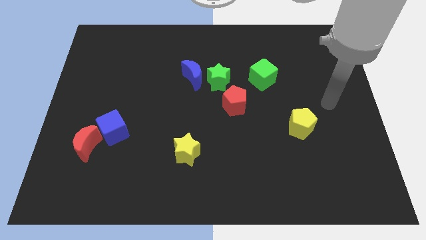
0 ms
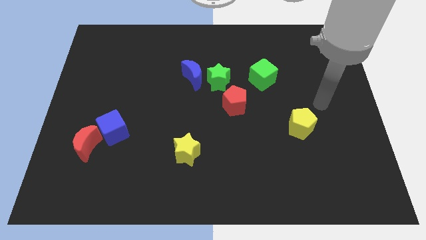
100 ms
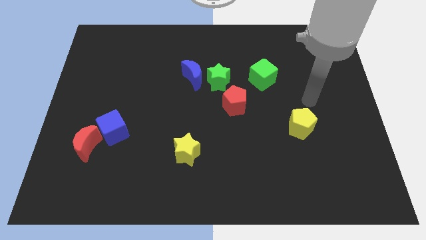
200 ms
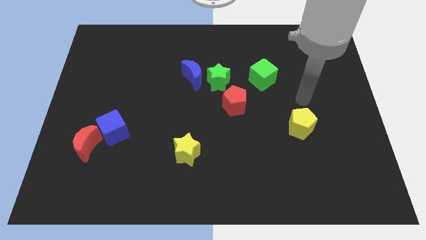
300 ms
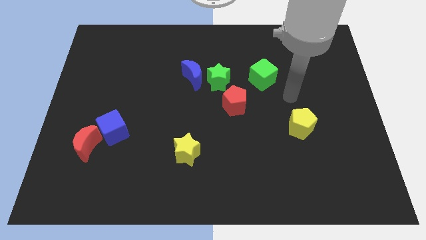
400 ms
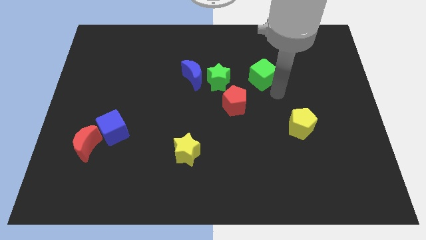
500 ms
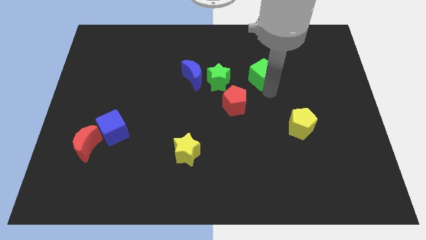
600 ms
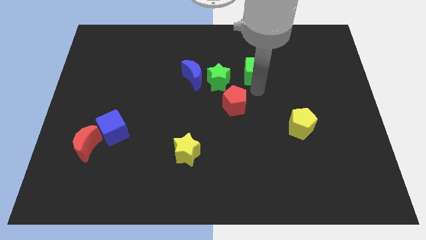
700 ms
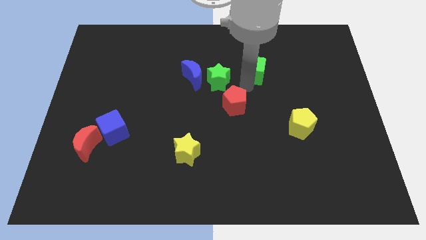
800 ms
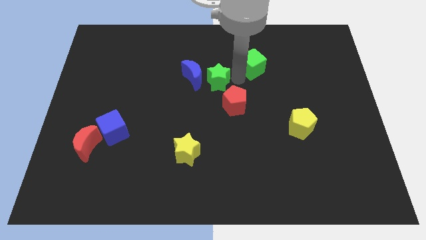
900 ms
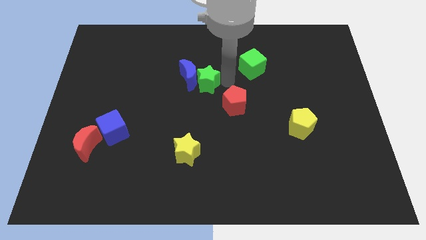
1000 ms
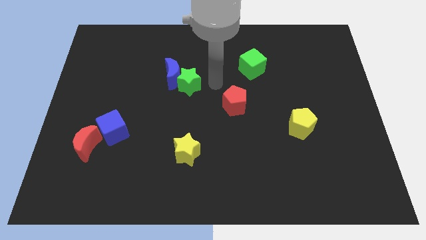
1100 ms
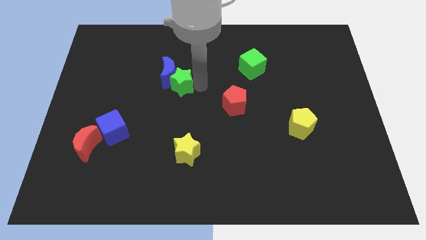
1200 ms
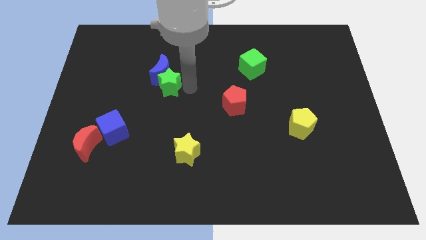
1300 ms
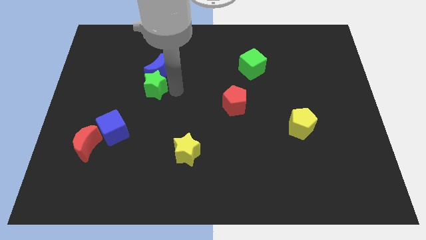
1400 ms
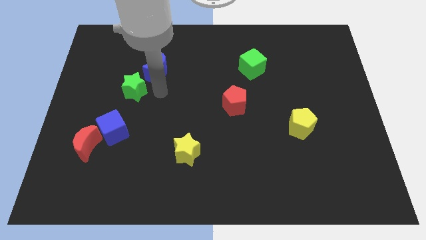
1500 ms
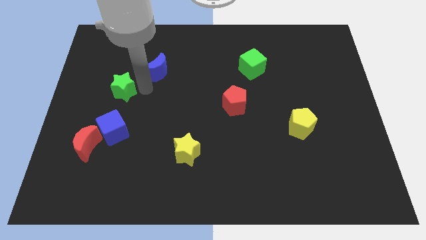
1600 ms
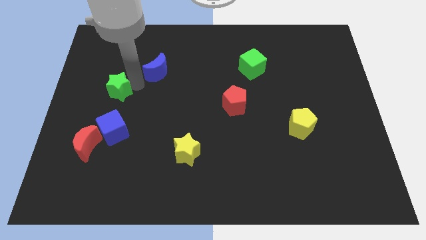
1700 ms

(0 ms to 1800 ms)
pull the blue moon apart from the green star

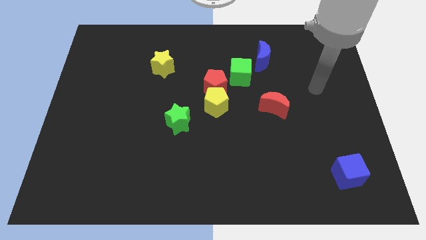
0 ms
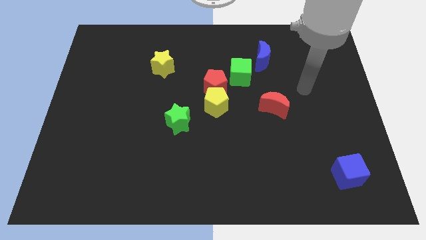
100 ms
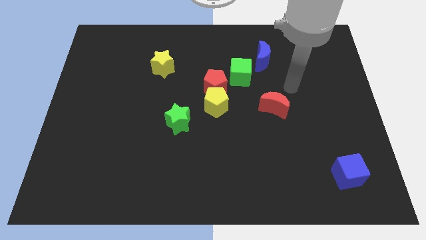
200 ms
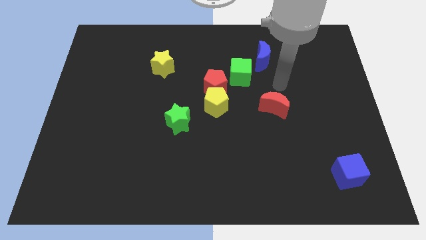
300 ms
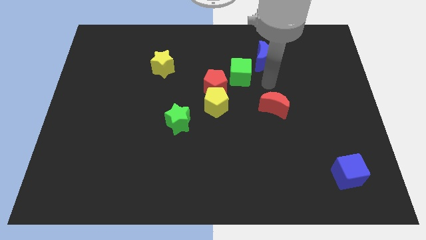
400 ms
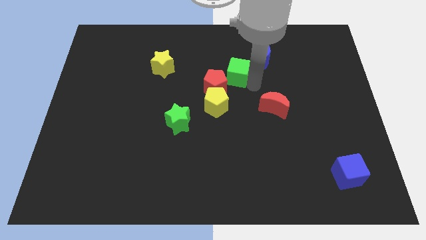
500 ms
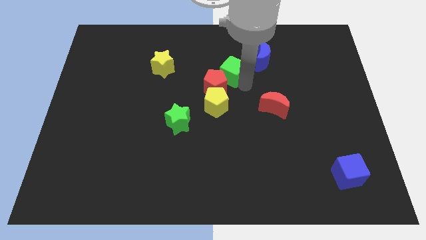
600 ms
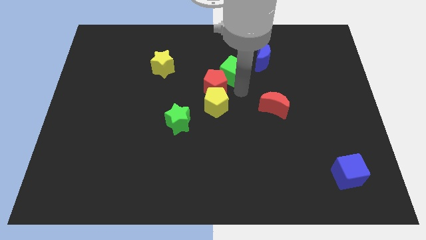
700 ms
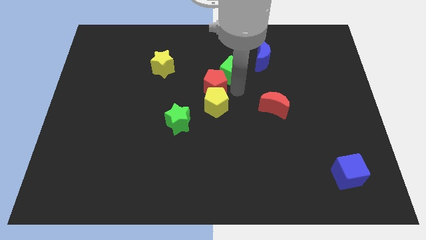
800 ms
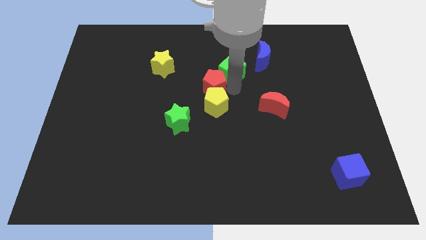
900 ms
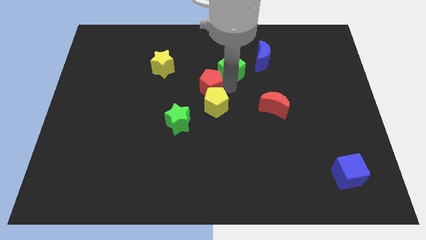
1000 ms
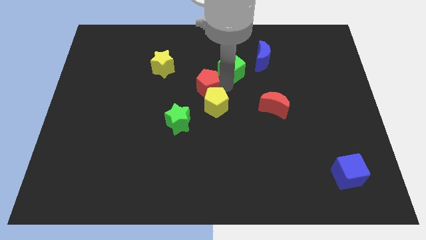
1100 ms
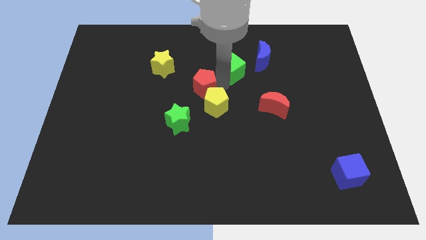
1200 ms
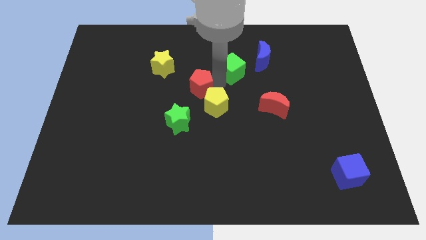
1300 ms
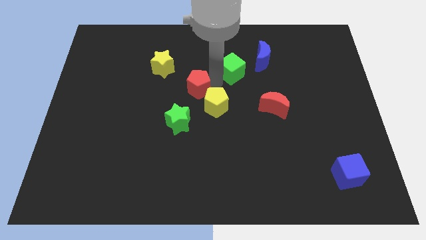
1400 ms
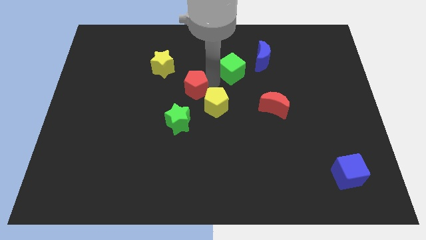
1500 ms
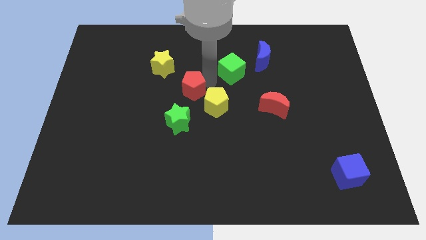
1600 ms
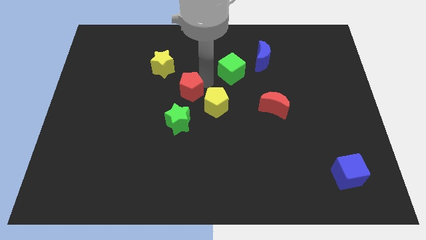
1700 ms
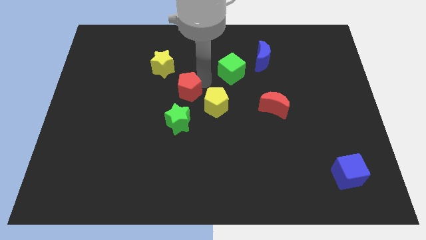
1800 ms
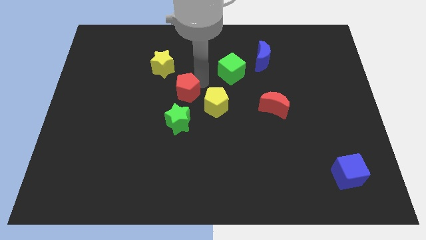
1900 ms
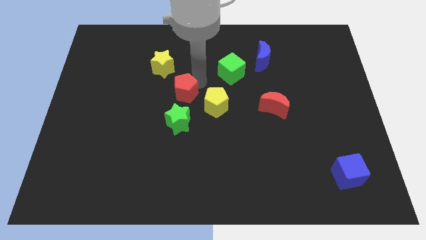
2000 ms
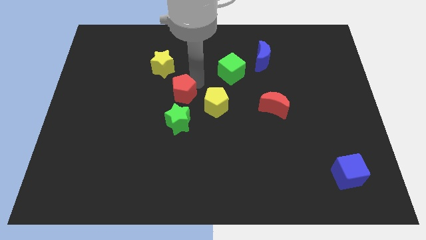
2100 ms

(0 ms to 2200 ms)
pull the red pentagon apart from the yellow pentagon and green cube

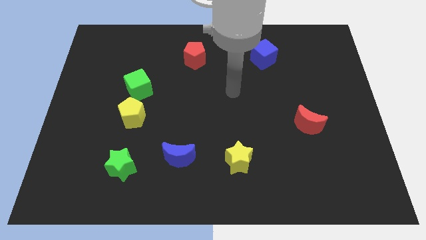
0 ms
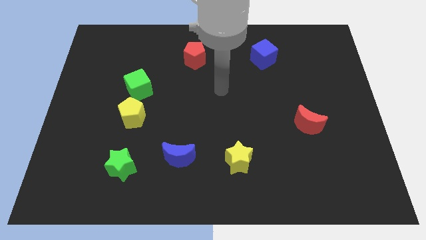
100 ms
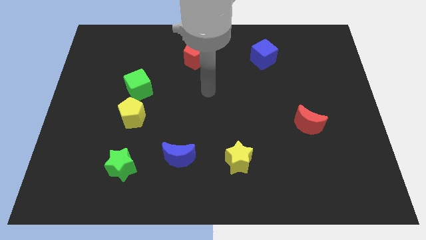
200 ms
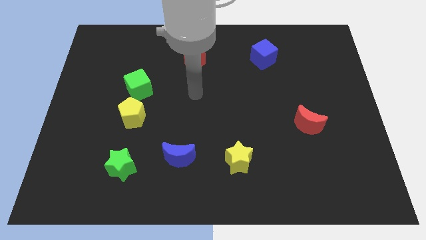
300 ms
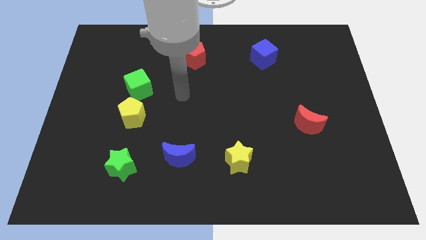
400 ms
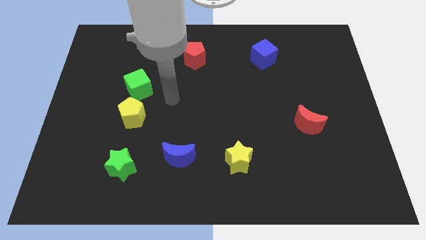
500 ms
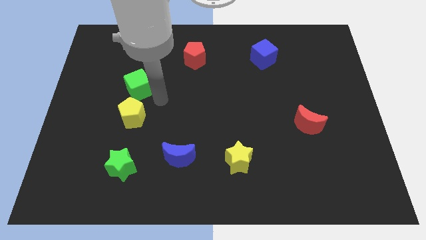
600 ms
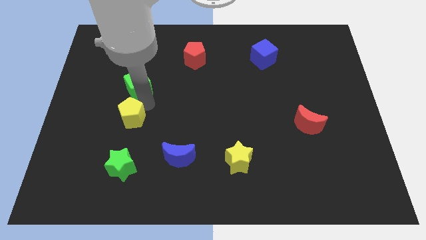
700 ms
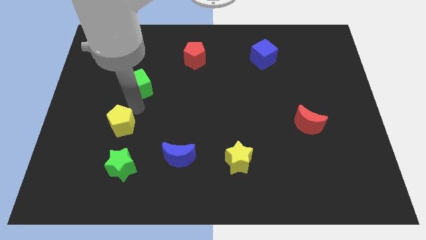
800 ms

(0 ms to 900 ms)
move the green cube away from the yellow pentagon

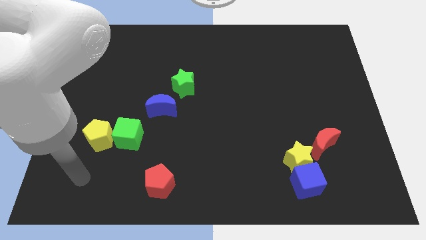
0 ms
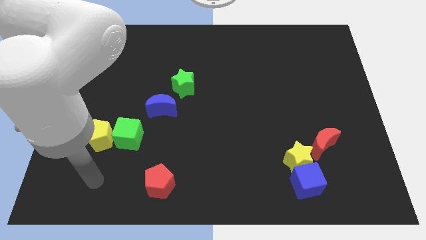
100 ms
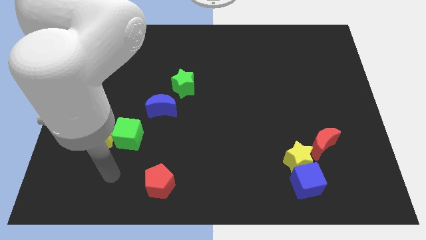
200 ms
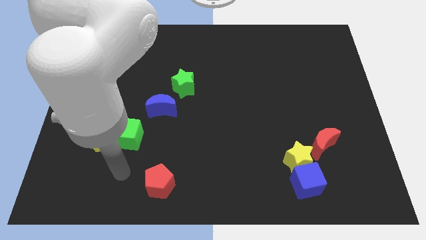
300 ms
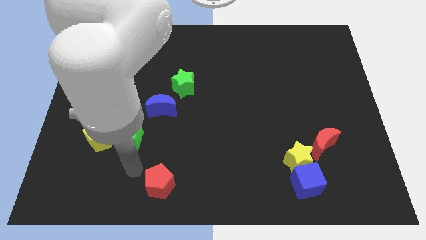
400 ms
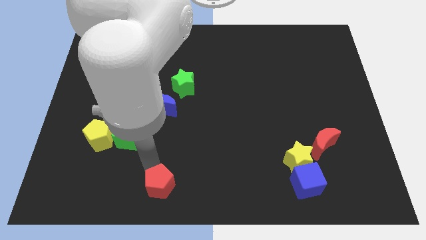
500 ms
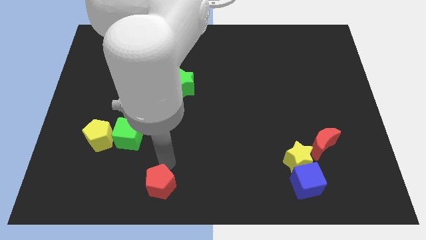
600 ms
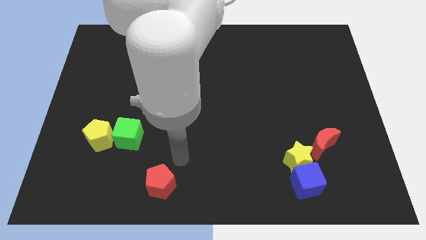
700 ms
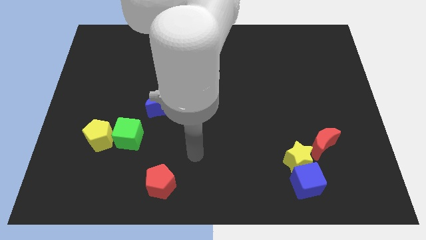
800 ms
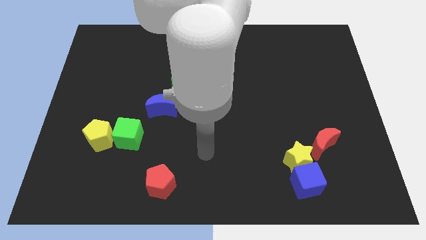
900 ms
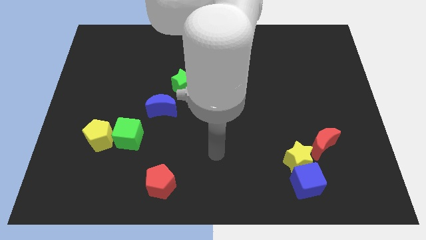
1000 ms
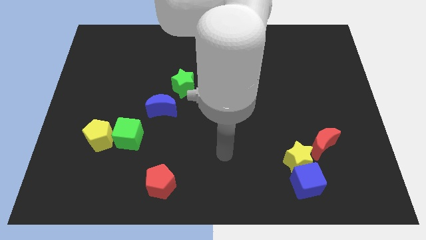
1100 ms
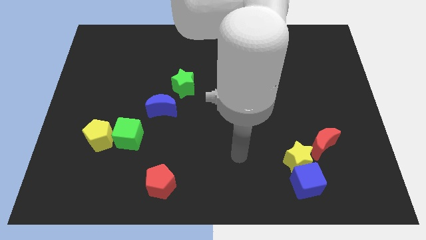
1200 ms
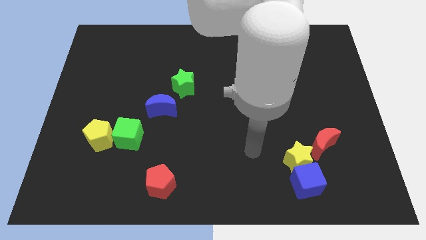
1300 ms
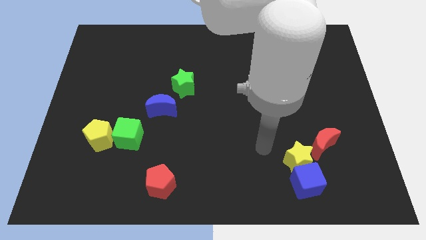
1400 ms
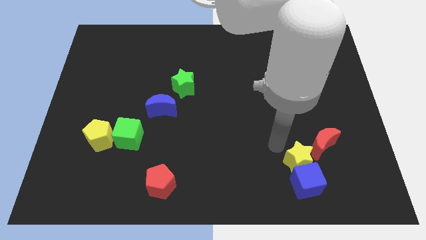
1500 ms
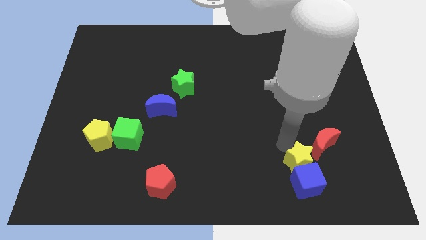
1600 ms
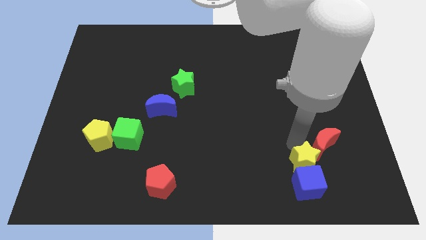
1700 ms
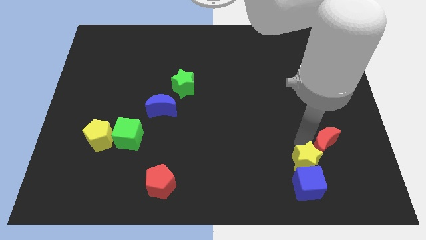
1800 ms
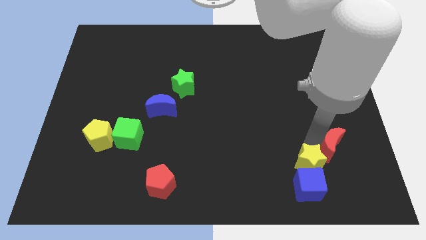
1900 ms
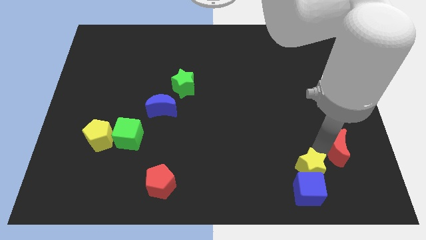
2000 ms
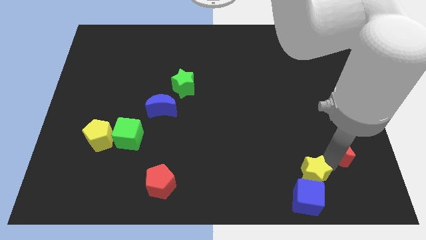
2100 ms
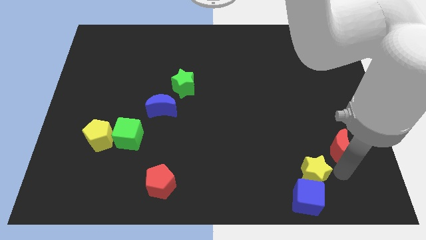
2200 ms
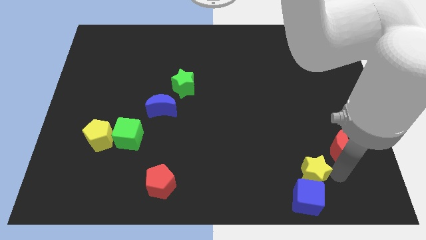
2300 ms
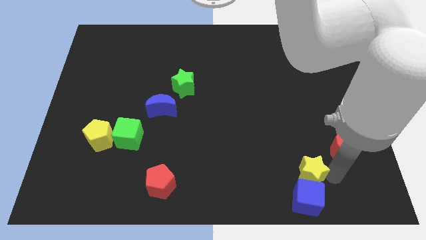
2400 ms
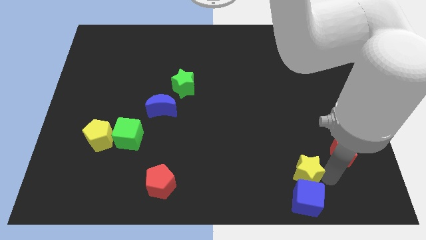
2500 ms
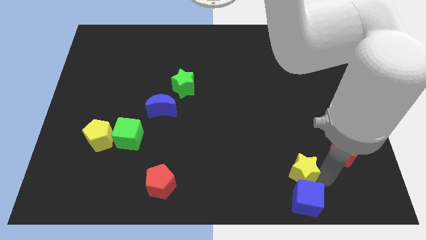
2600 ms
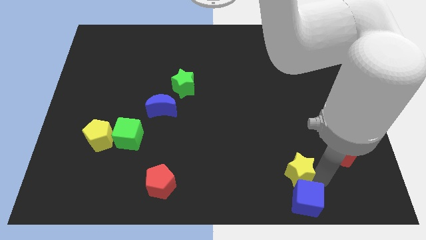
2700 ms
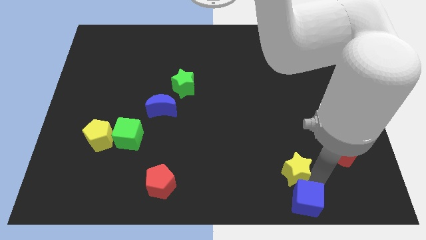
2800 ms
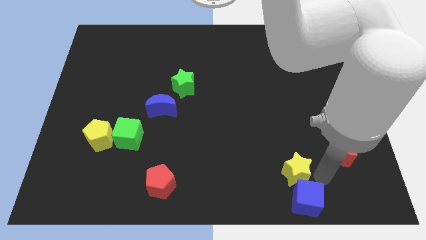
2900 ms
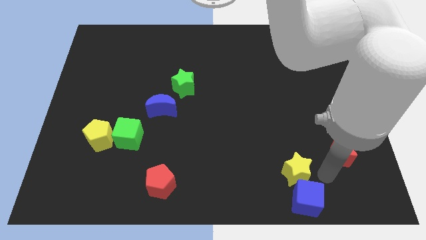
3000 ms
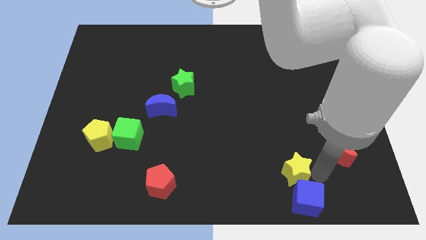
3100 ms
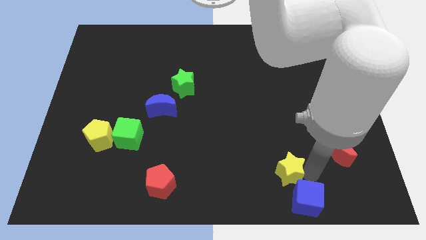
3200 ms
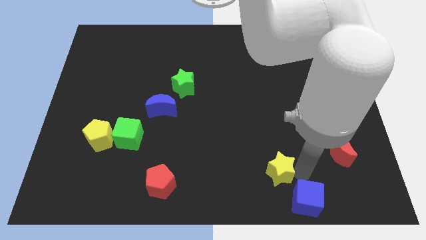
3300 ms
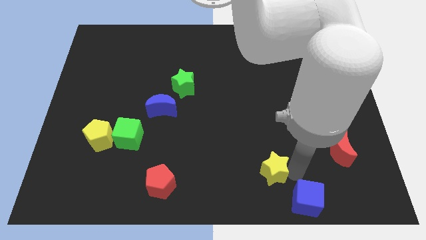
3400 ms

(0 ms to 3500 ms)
separate the yellow star from the blue cube and red moon

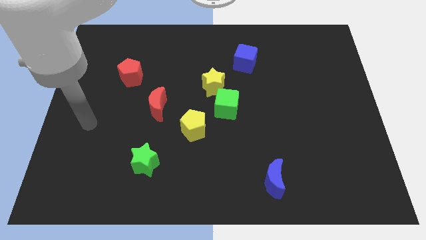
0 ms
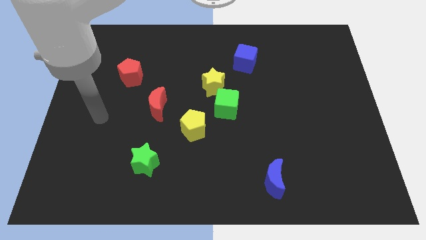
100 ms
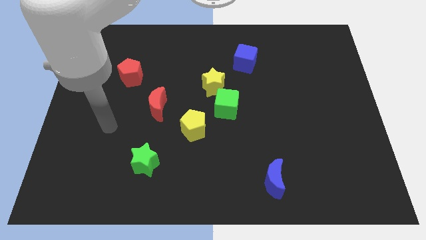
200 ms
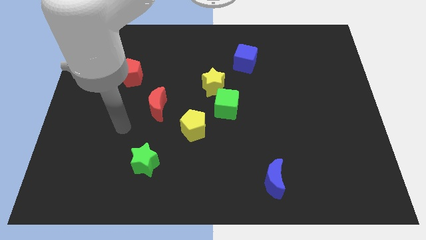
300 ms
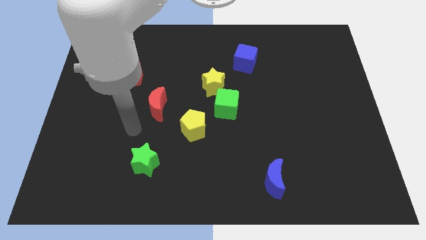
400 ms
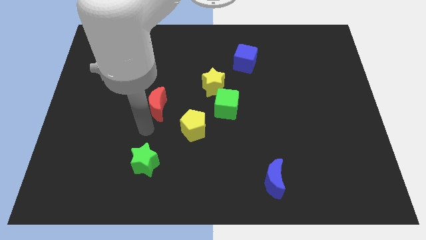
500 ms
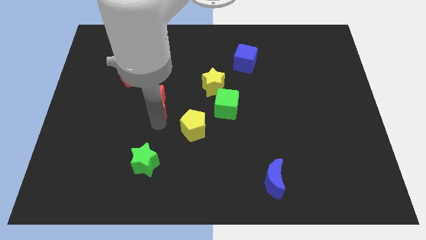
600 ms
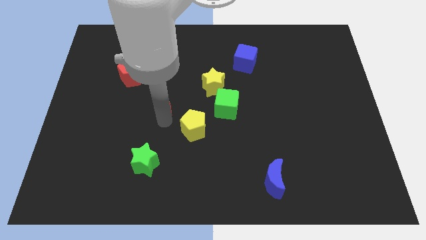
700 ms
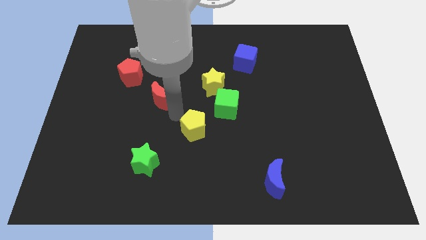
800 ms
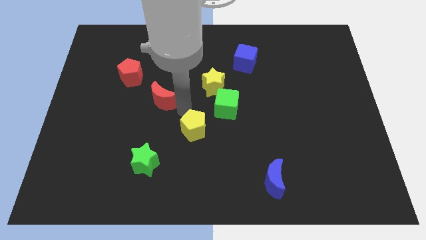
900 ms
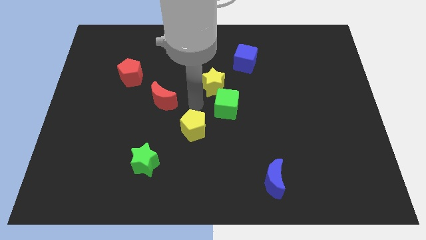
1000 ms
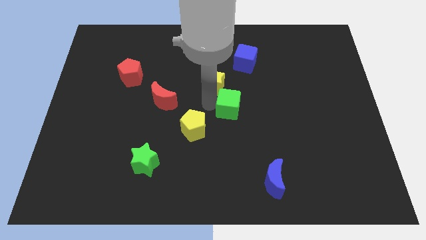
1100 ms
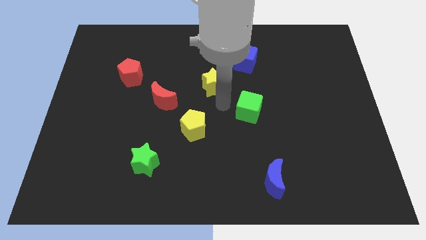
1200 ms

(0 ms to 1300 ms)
move the yellow star away from the green cube
